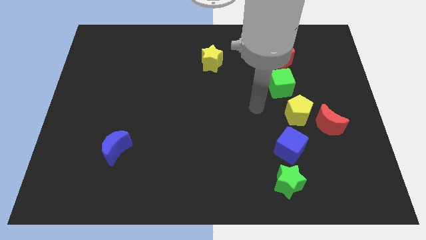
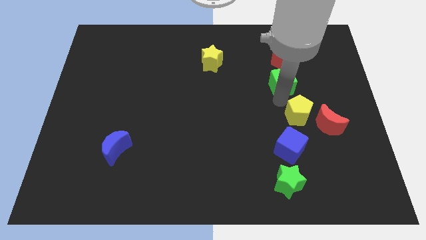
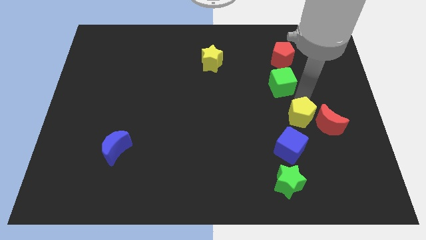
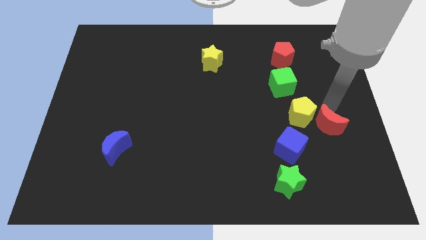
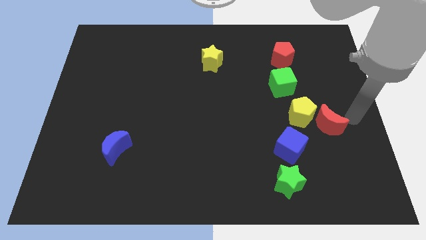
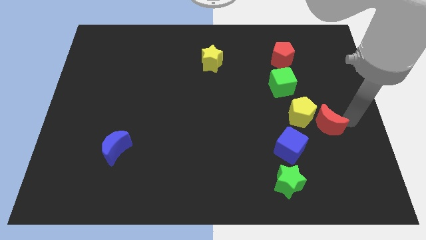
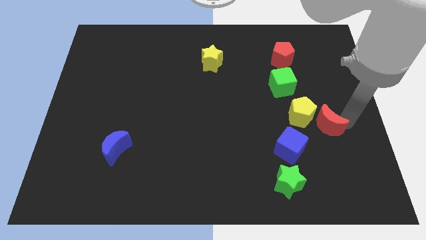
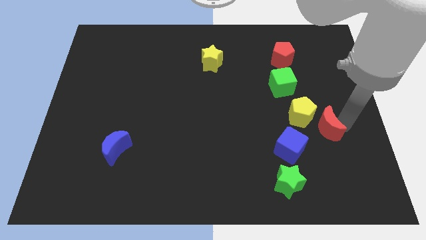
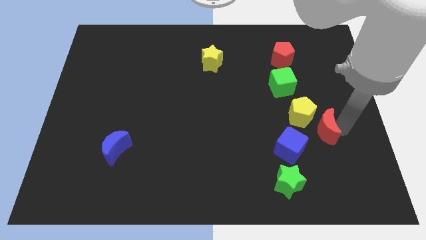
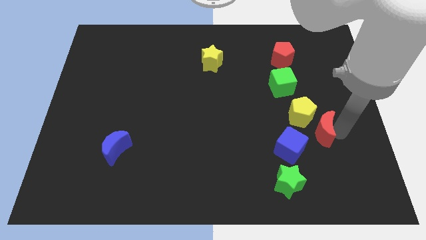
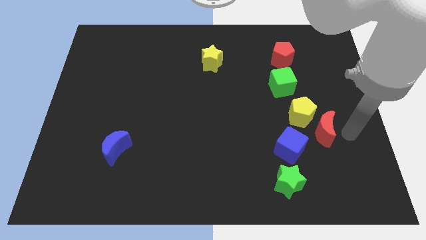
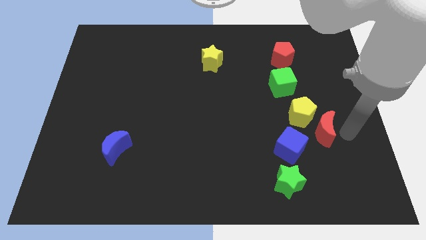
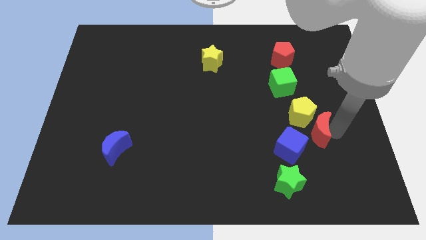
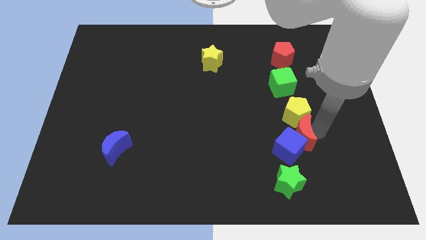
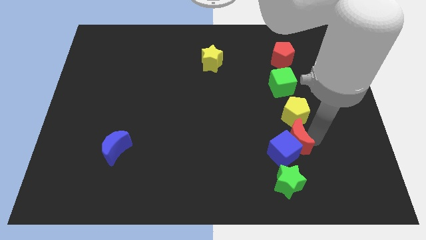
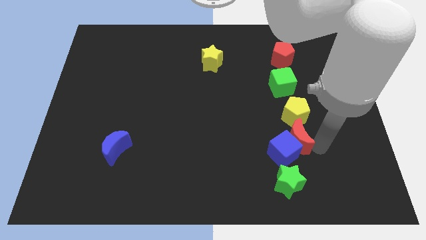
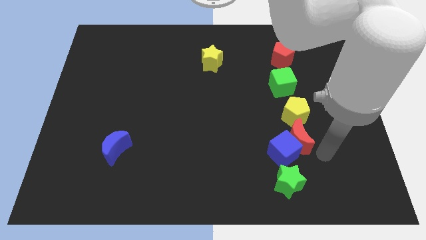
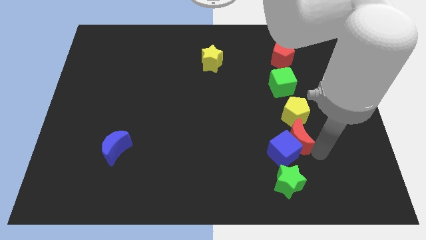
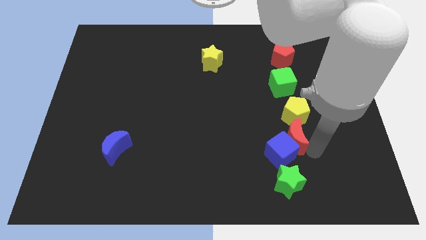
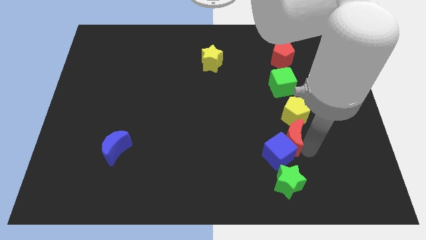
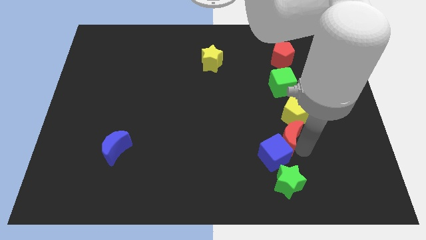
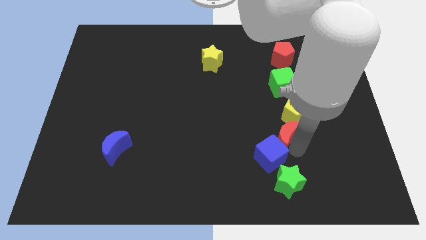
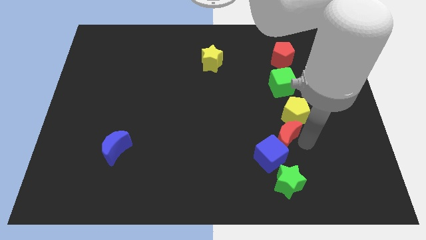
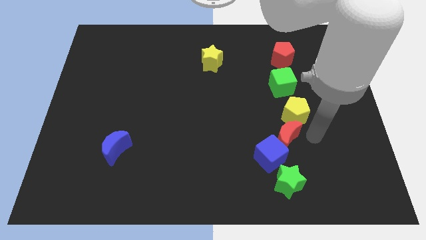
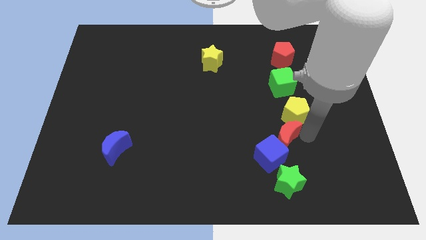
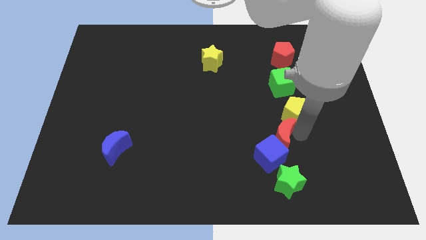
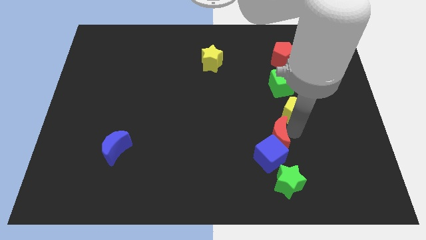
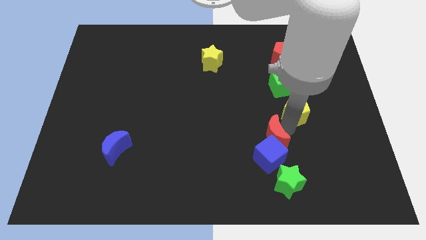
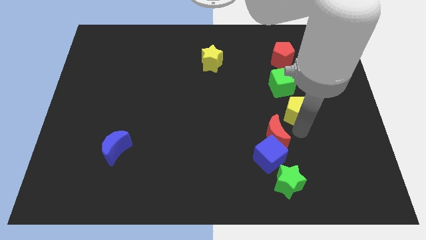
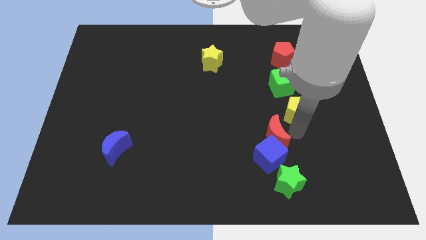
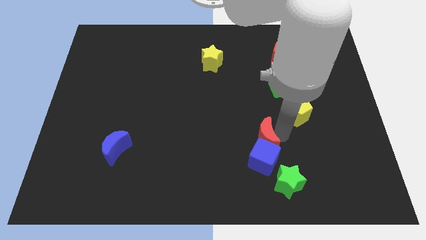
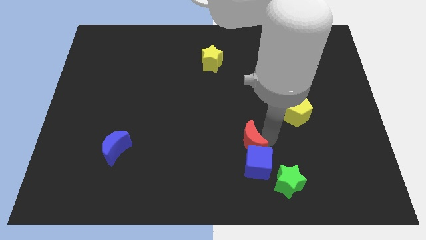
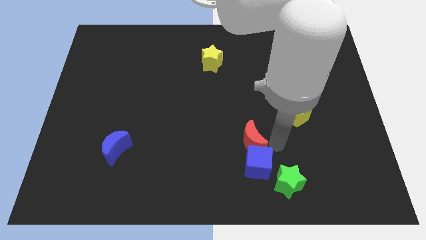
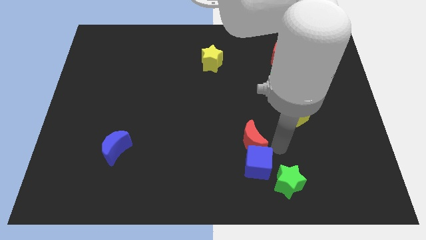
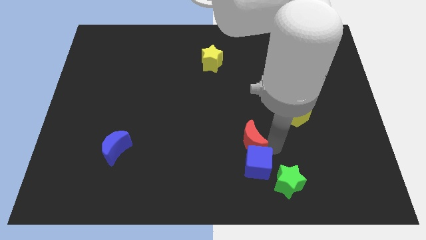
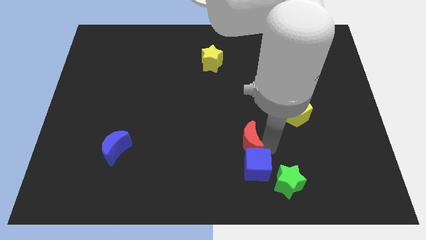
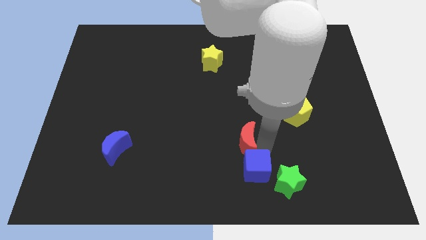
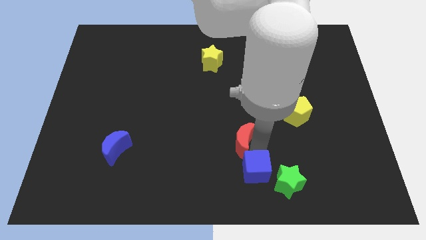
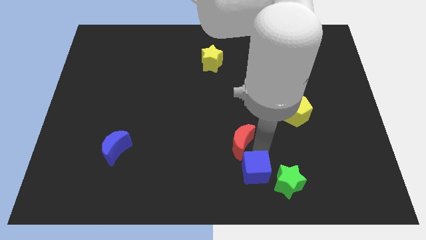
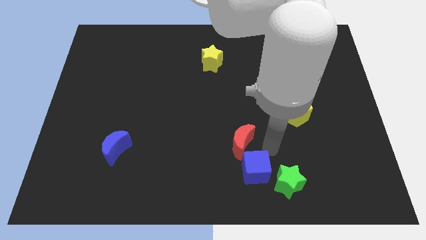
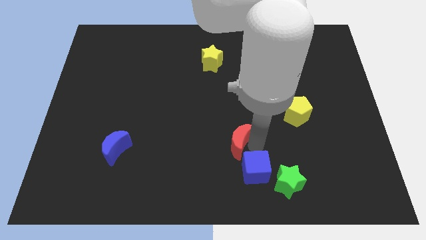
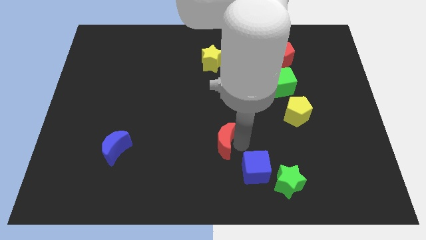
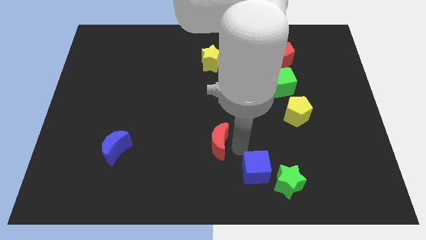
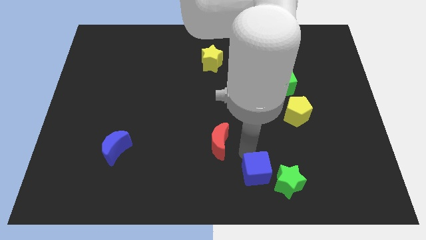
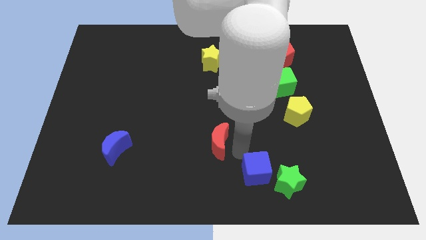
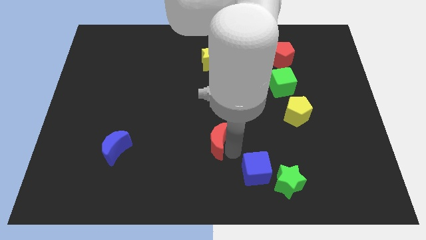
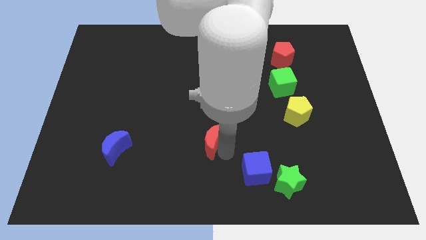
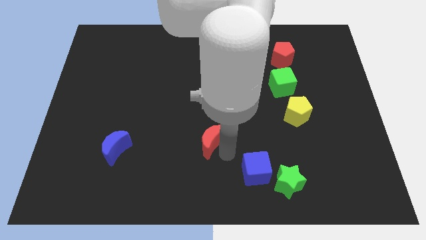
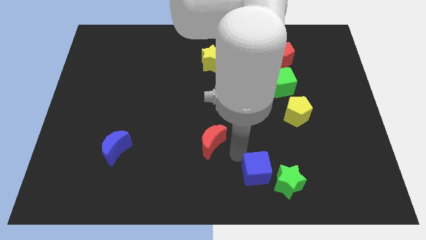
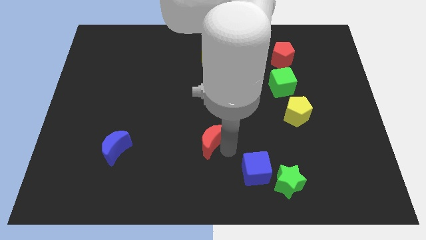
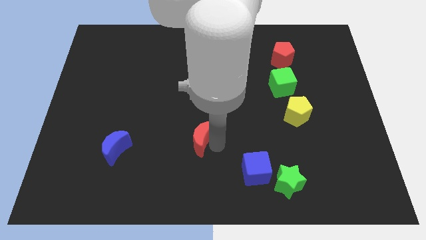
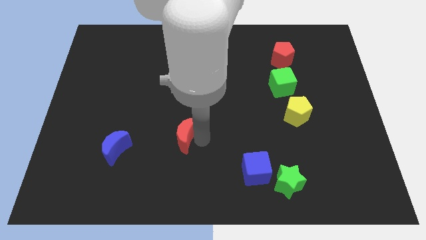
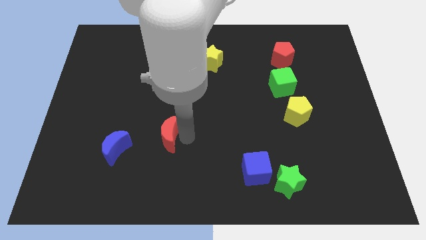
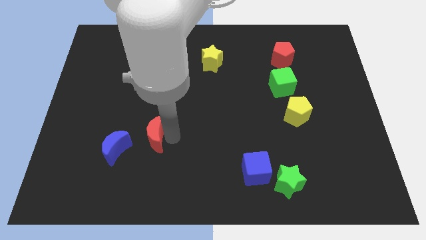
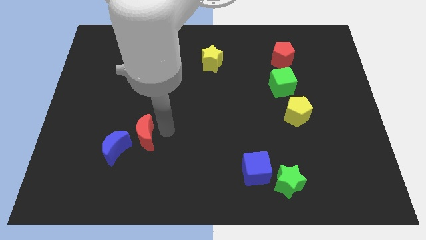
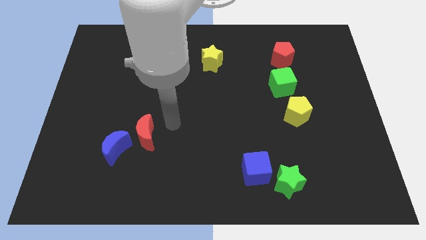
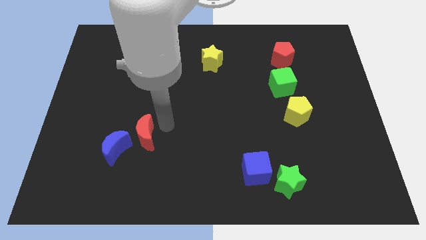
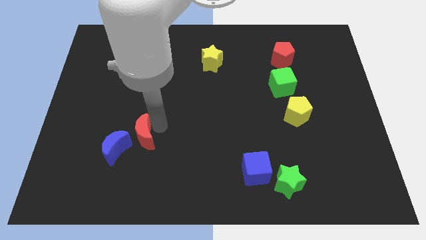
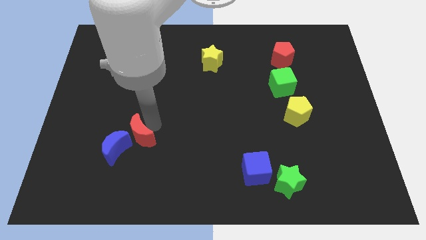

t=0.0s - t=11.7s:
push the red moon close to the blue moon

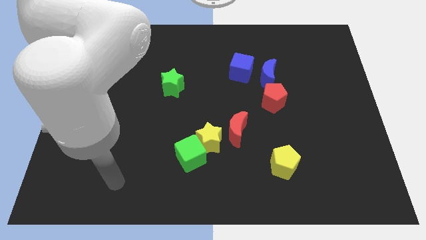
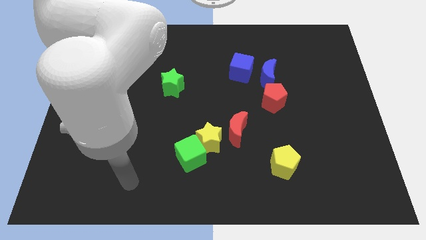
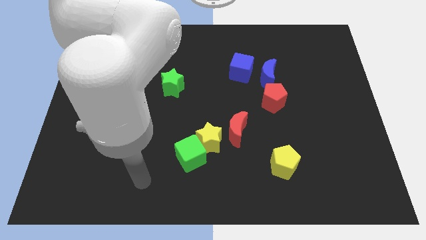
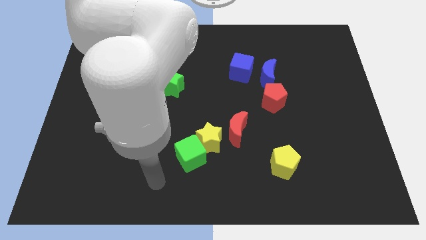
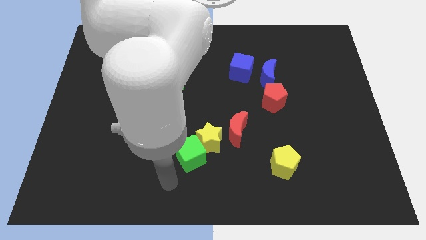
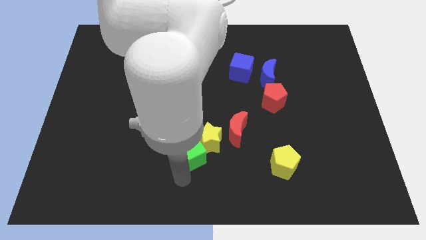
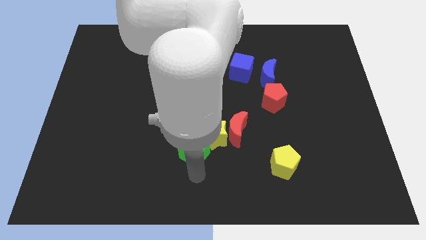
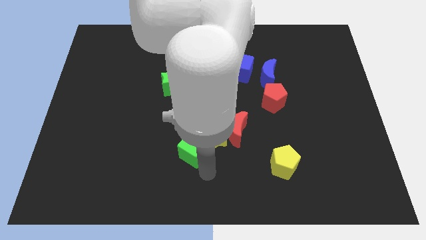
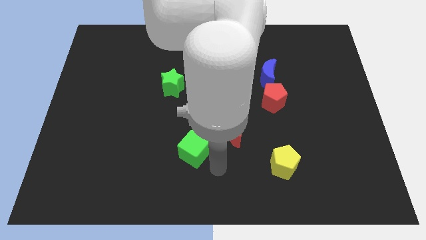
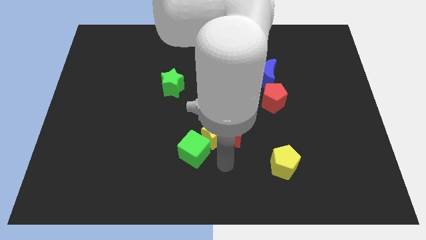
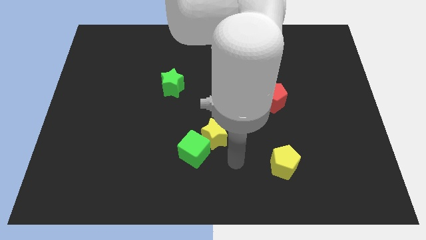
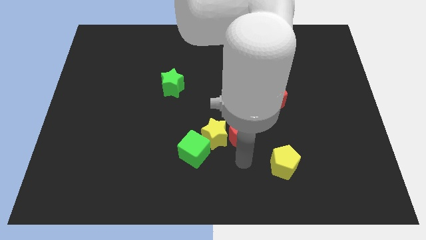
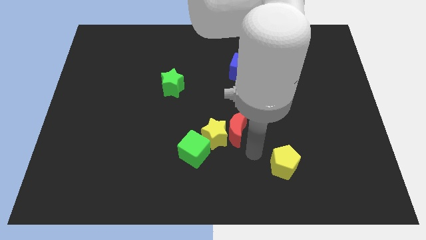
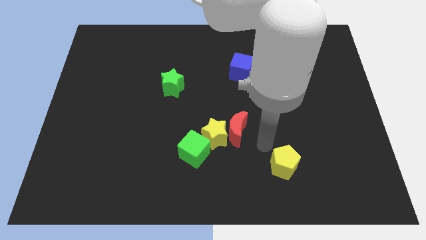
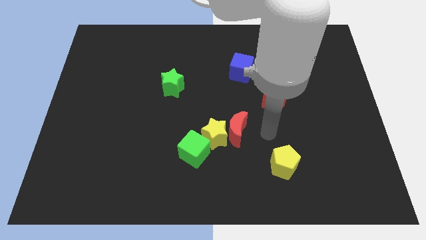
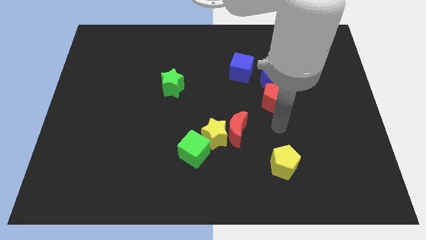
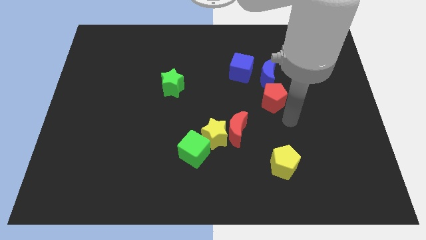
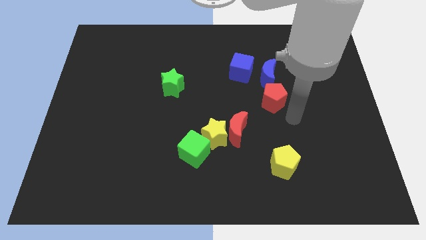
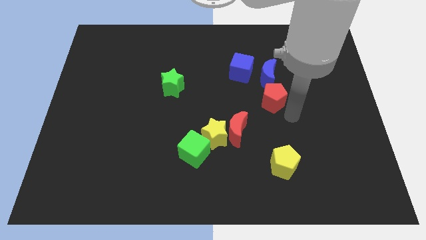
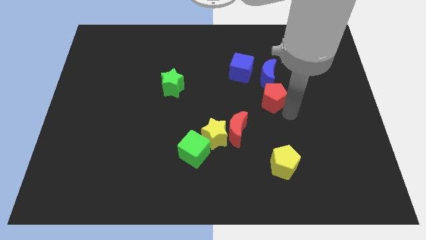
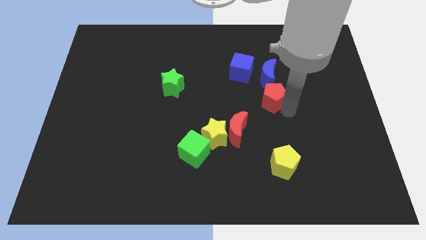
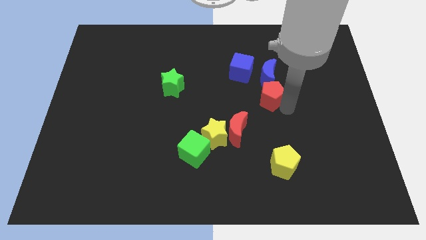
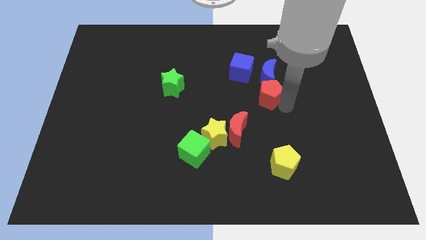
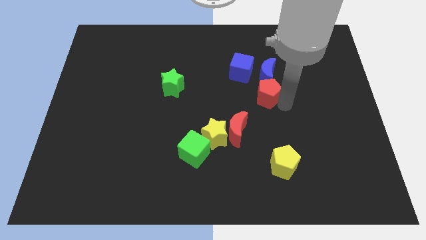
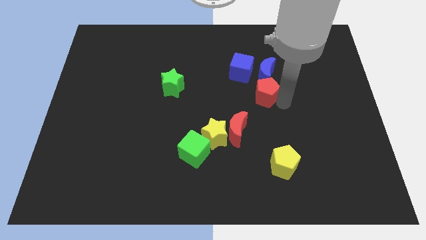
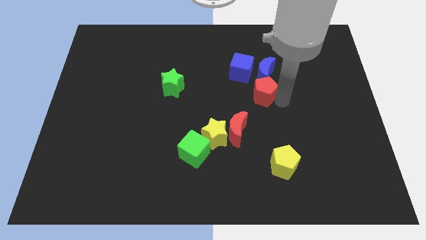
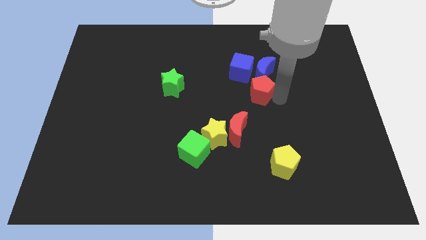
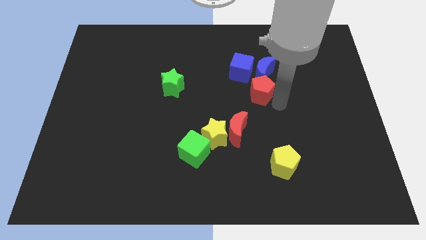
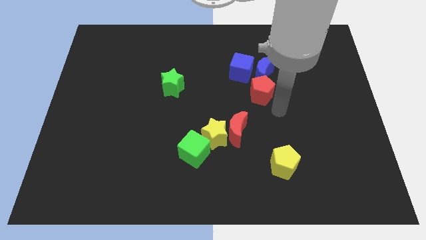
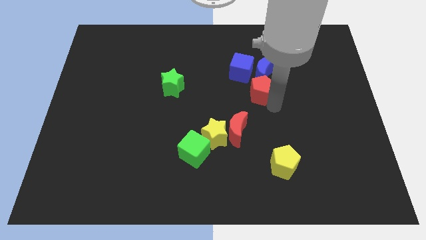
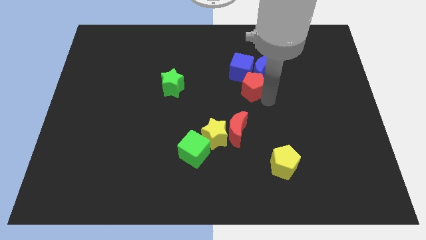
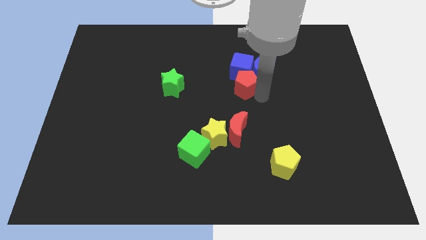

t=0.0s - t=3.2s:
move the red pentagon towards the blue cube
